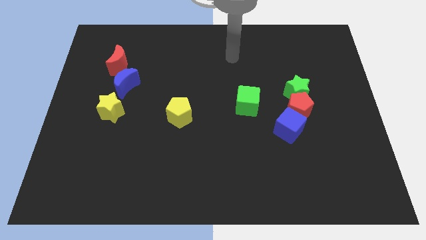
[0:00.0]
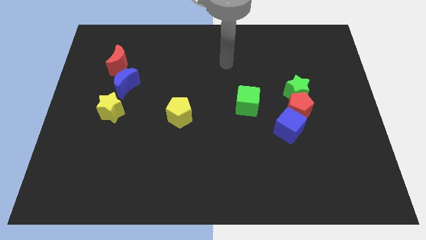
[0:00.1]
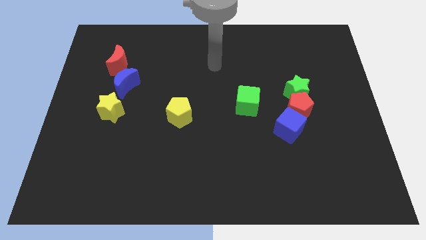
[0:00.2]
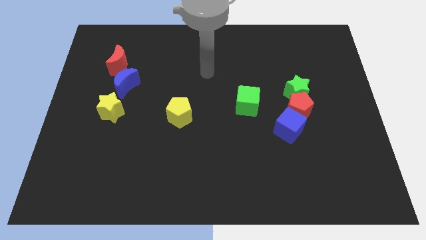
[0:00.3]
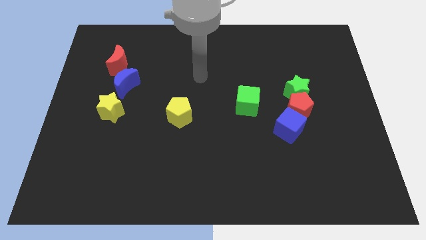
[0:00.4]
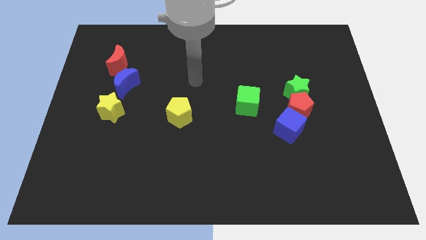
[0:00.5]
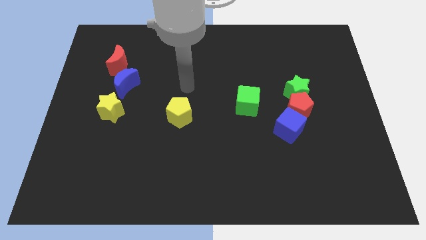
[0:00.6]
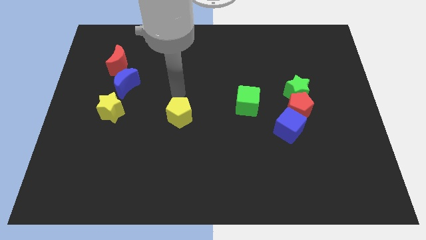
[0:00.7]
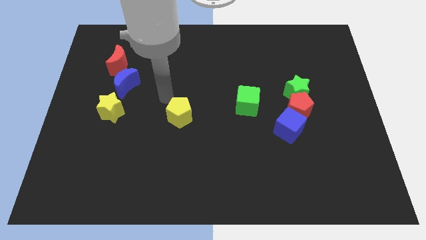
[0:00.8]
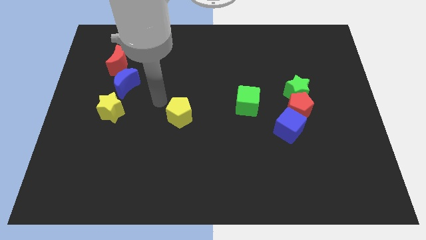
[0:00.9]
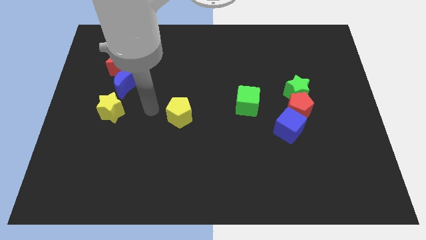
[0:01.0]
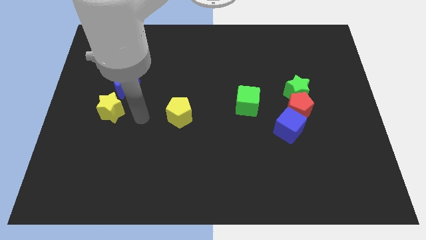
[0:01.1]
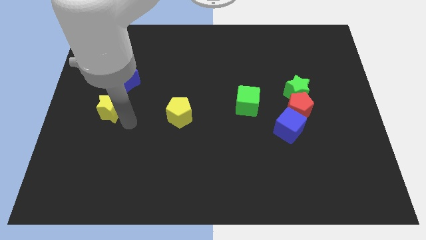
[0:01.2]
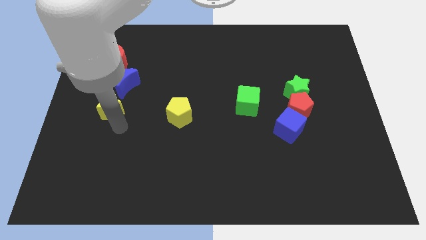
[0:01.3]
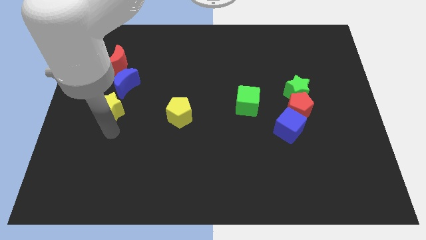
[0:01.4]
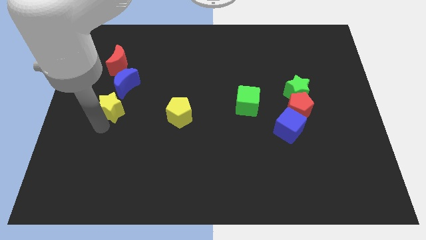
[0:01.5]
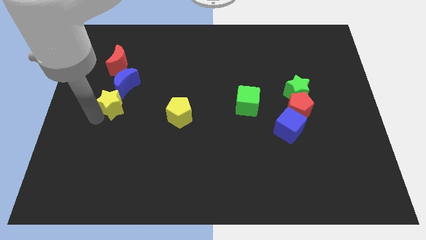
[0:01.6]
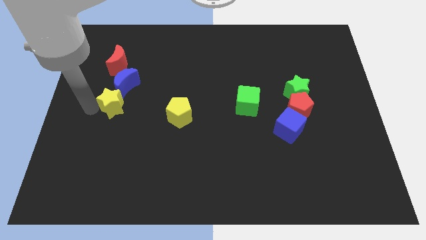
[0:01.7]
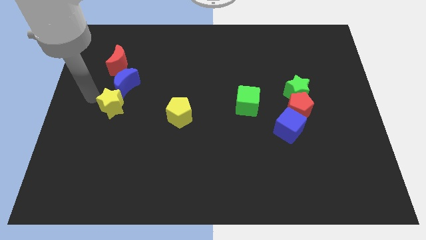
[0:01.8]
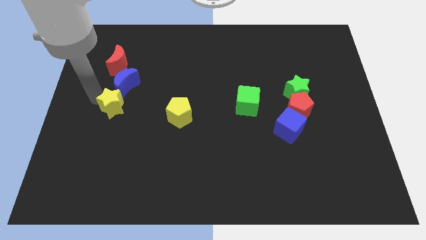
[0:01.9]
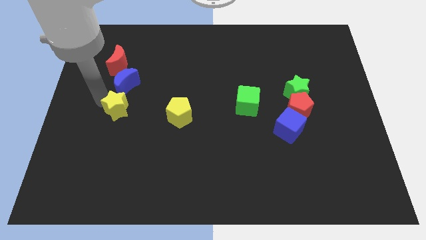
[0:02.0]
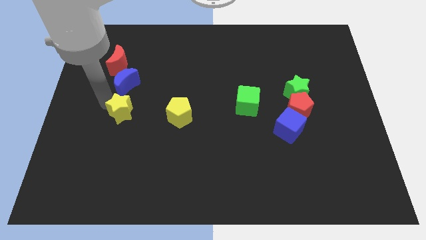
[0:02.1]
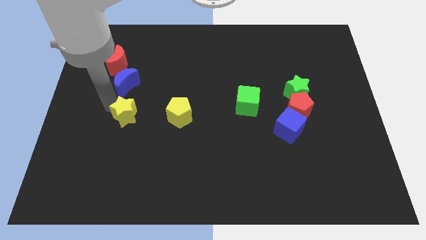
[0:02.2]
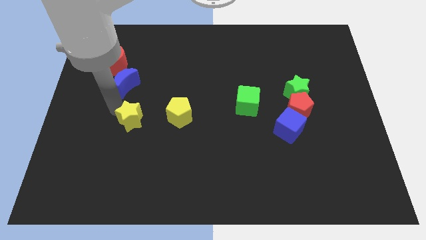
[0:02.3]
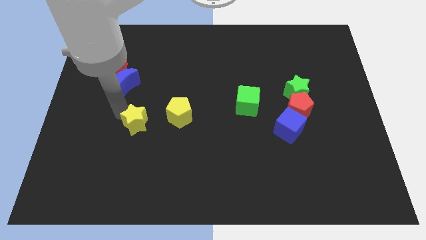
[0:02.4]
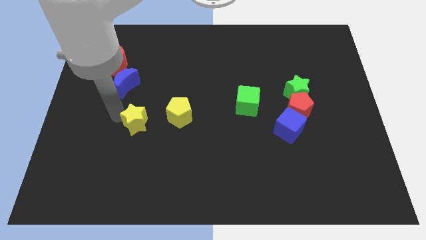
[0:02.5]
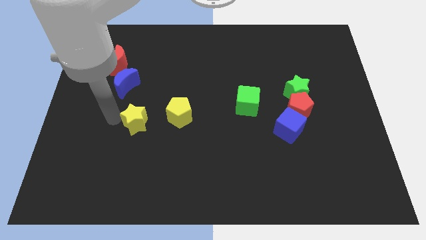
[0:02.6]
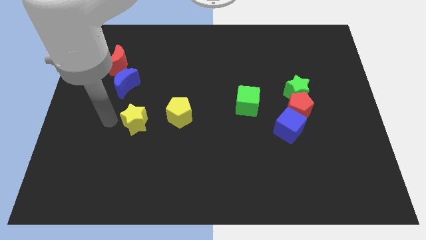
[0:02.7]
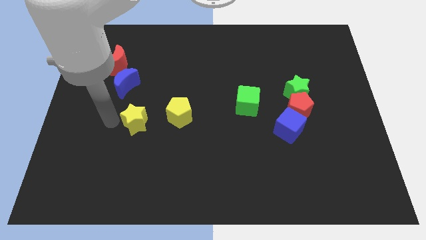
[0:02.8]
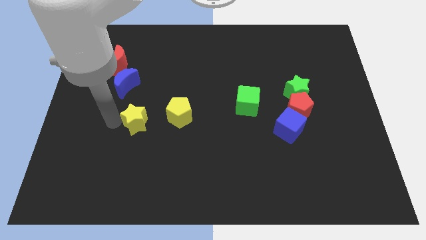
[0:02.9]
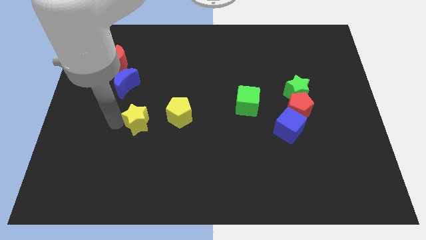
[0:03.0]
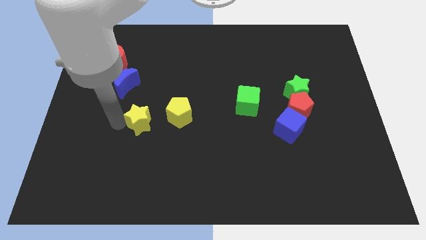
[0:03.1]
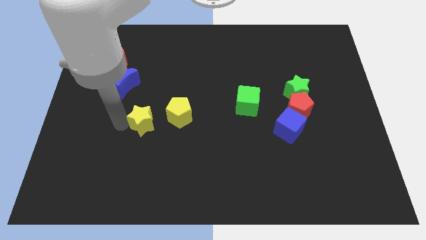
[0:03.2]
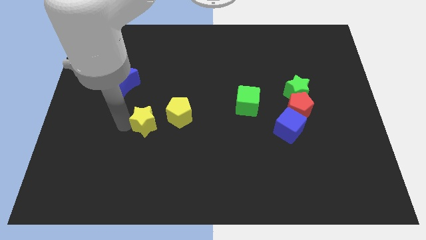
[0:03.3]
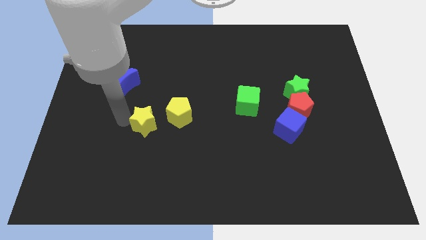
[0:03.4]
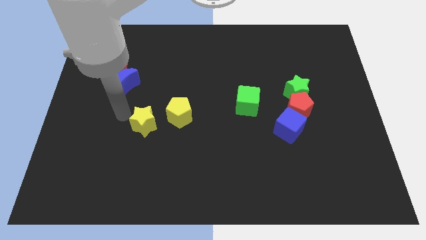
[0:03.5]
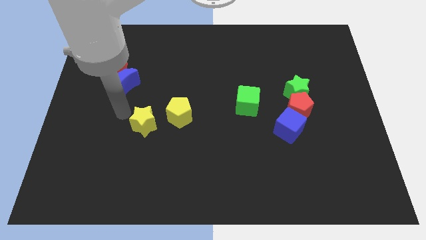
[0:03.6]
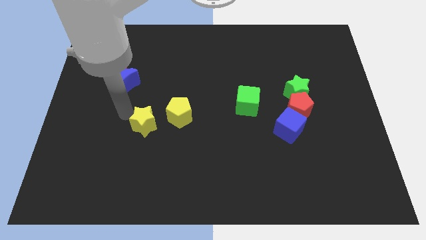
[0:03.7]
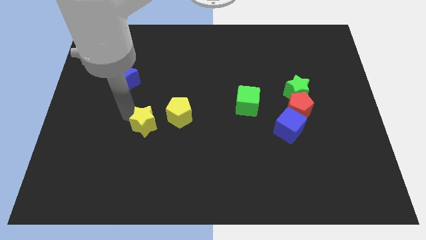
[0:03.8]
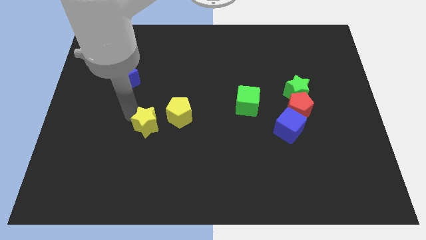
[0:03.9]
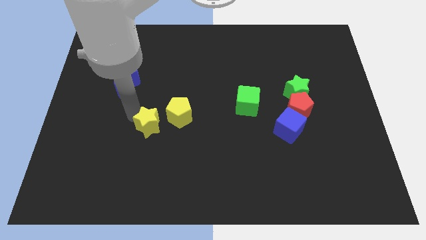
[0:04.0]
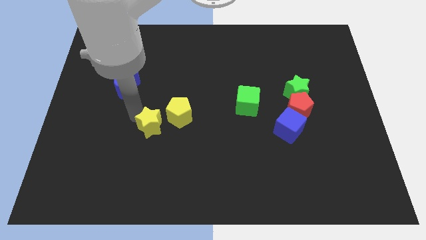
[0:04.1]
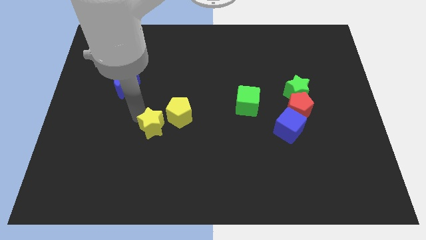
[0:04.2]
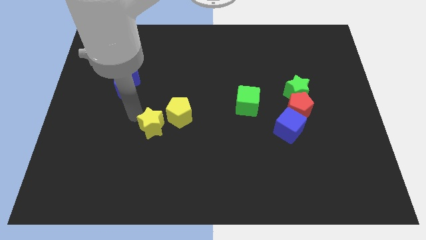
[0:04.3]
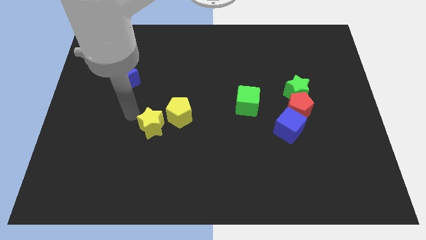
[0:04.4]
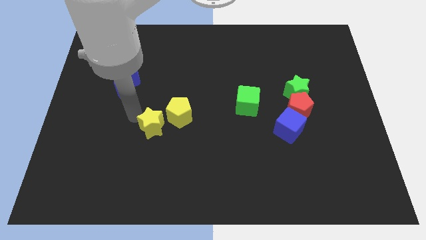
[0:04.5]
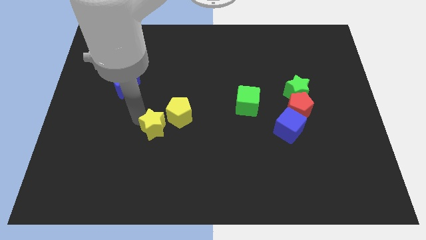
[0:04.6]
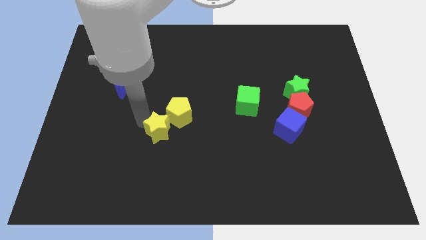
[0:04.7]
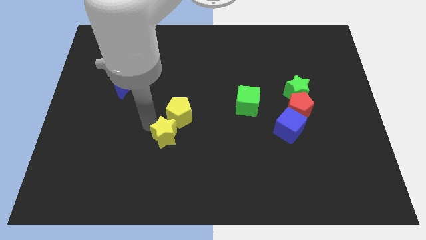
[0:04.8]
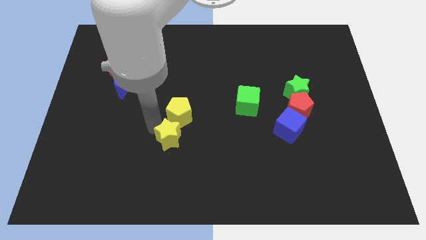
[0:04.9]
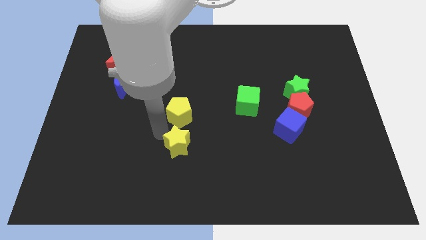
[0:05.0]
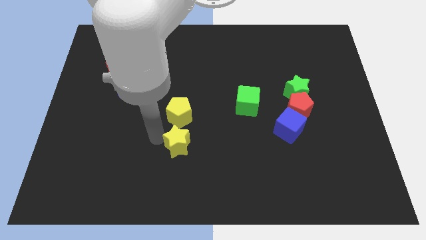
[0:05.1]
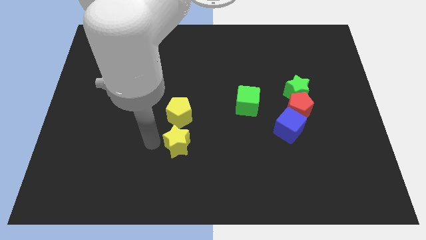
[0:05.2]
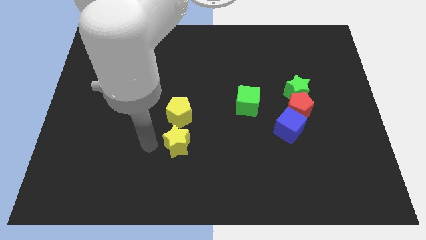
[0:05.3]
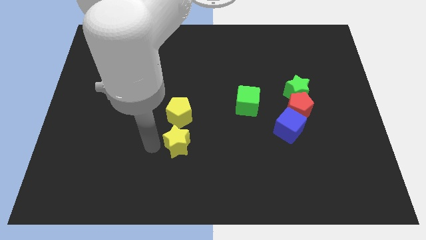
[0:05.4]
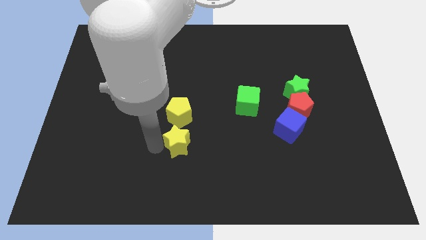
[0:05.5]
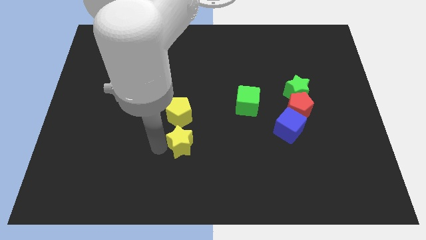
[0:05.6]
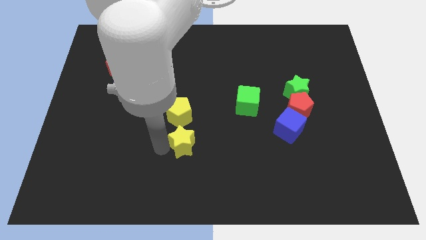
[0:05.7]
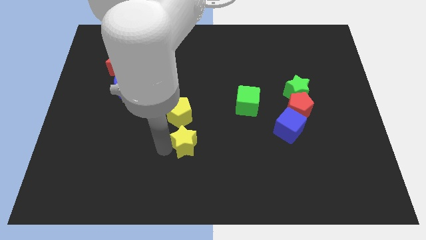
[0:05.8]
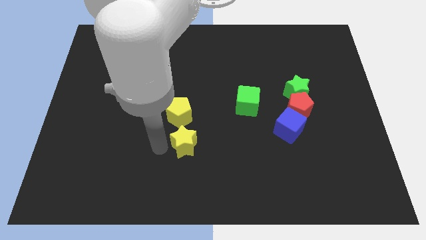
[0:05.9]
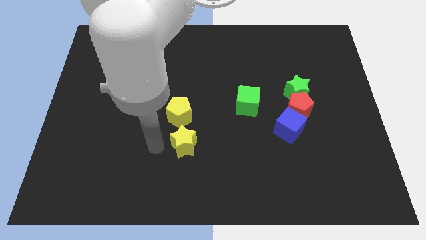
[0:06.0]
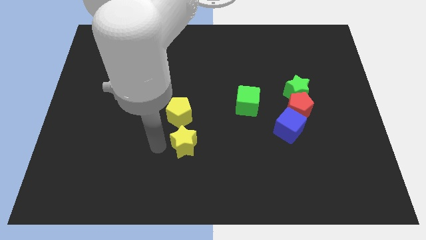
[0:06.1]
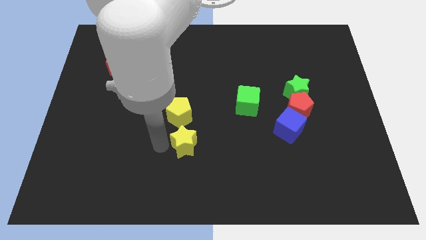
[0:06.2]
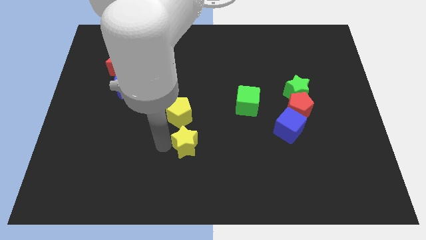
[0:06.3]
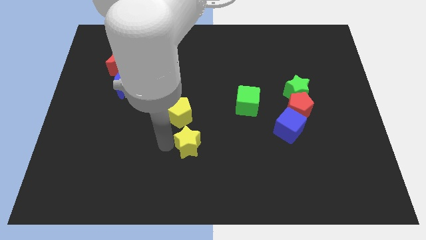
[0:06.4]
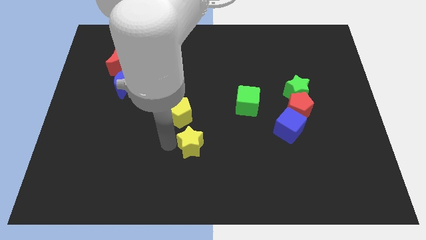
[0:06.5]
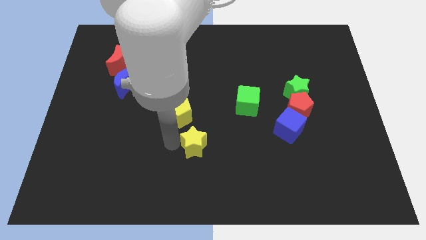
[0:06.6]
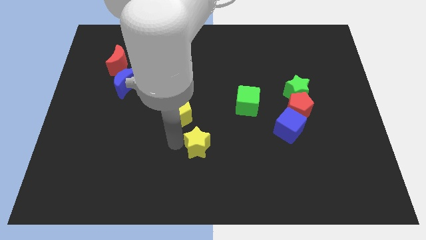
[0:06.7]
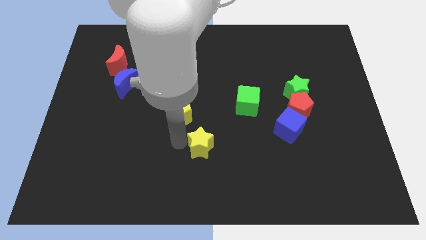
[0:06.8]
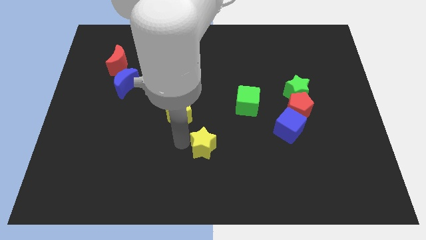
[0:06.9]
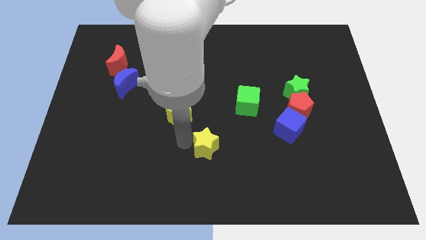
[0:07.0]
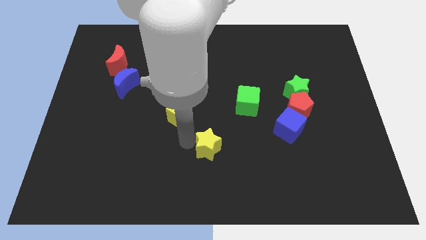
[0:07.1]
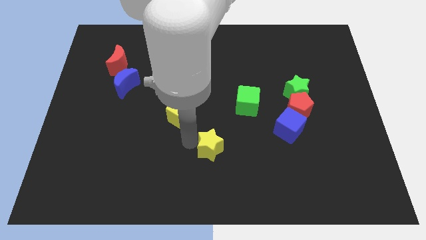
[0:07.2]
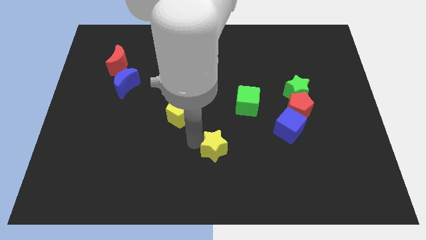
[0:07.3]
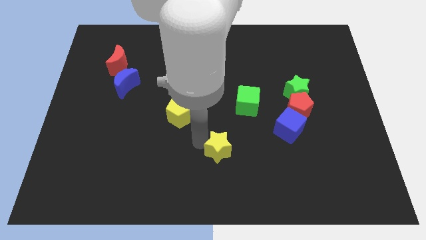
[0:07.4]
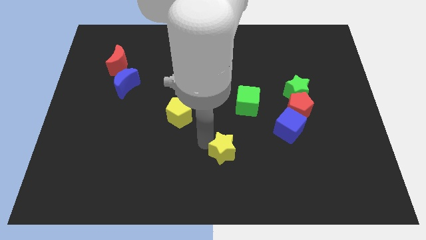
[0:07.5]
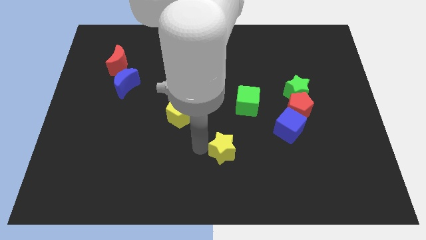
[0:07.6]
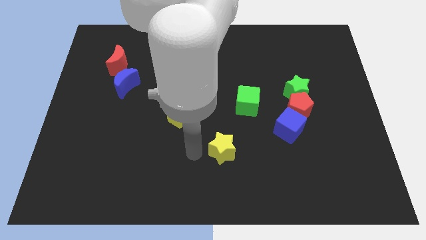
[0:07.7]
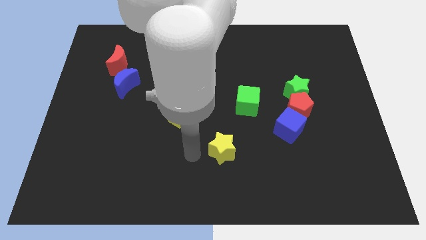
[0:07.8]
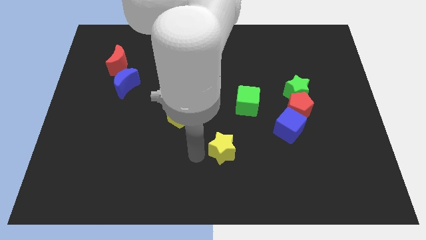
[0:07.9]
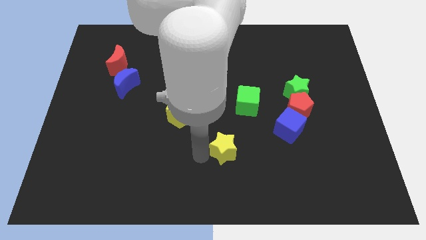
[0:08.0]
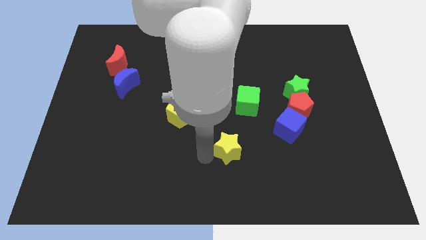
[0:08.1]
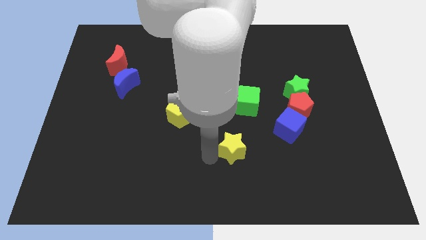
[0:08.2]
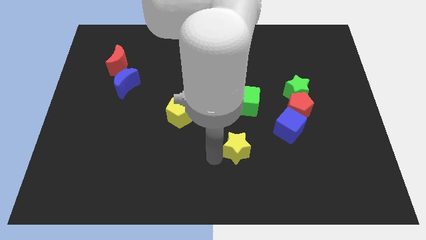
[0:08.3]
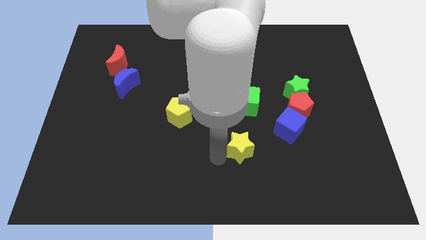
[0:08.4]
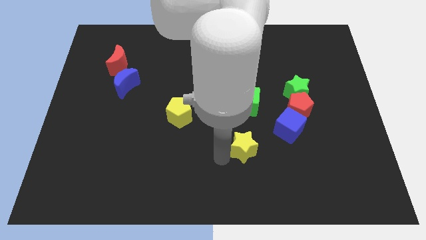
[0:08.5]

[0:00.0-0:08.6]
put the yellow star to the bottom left side of the blue cube
